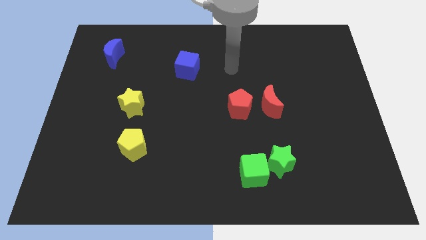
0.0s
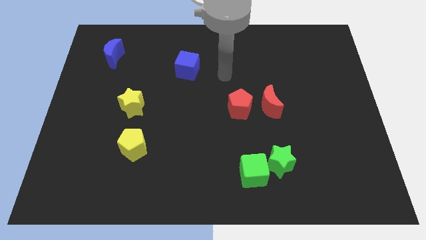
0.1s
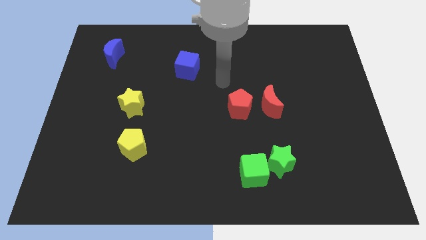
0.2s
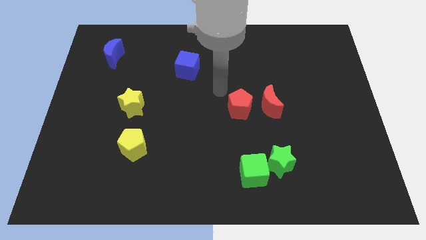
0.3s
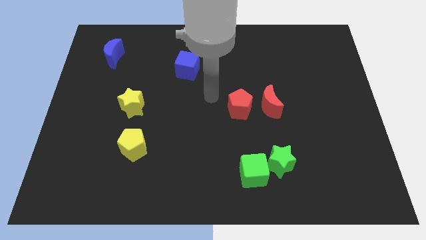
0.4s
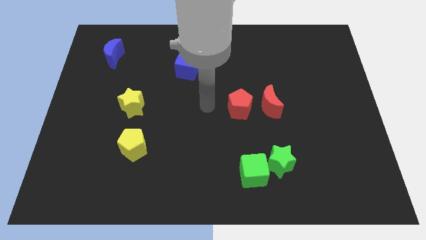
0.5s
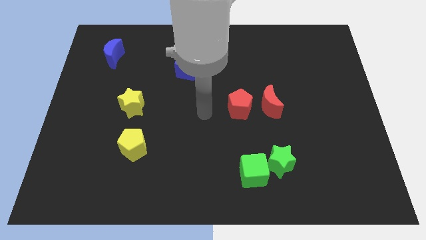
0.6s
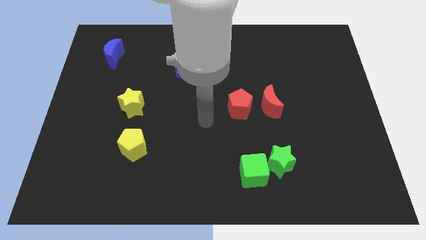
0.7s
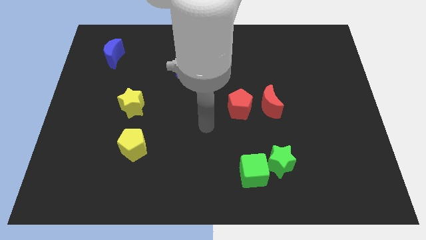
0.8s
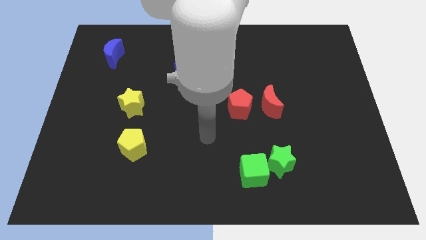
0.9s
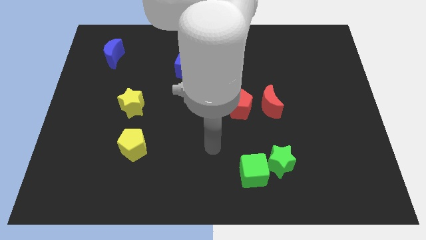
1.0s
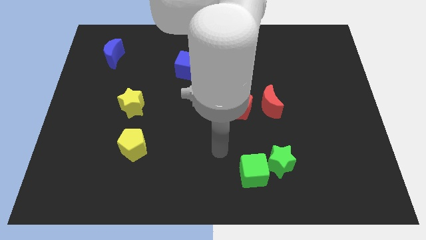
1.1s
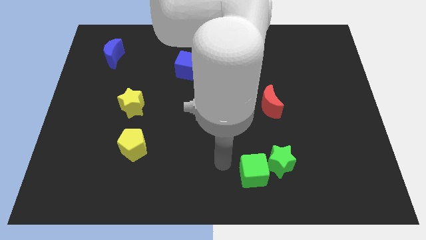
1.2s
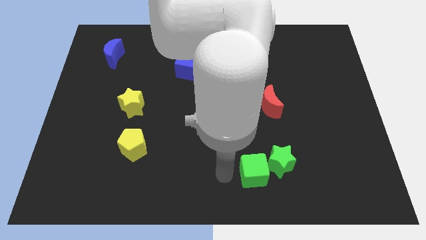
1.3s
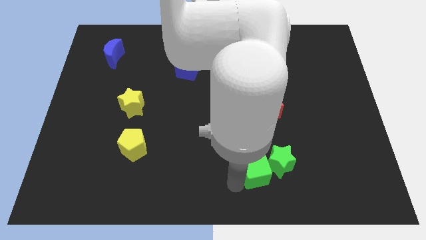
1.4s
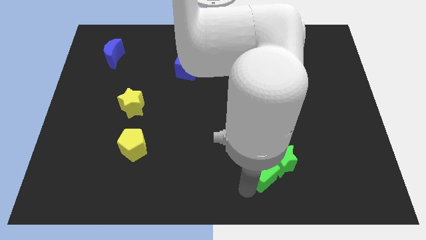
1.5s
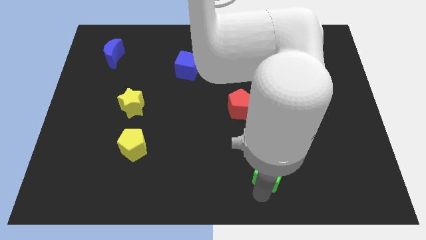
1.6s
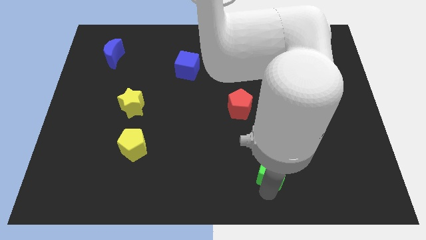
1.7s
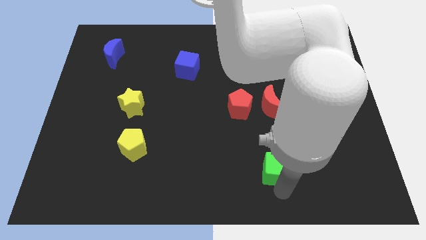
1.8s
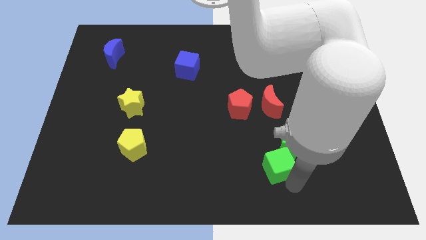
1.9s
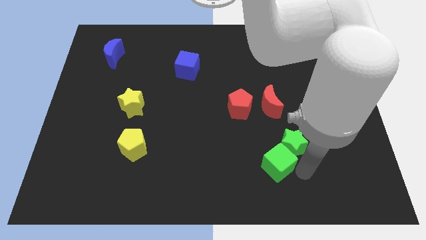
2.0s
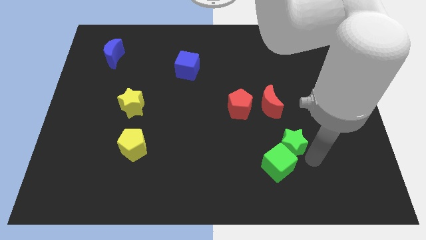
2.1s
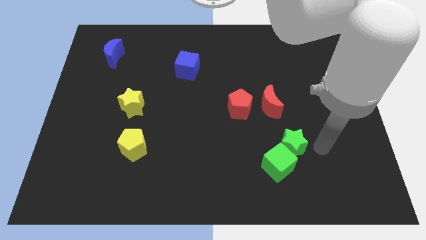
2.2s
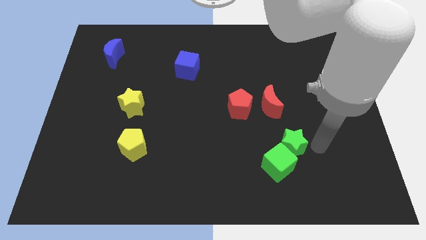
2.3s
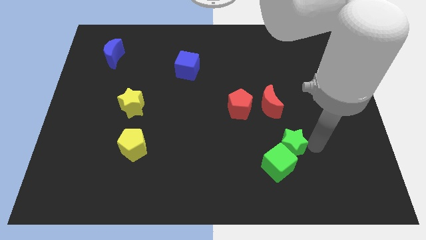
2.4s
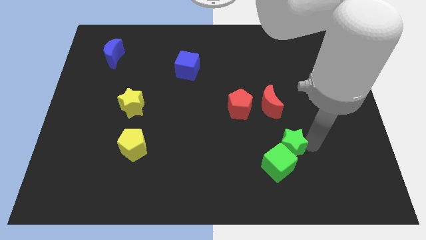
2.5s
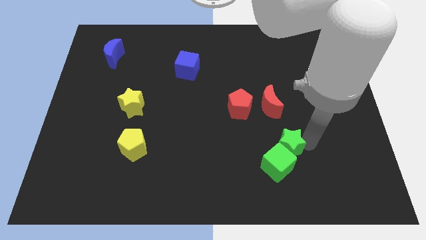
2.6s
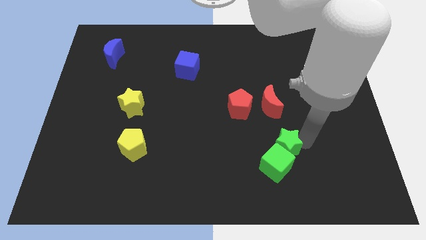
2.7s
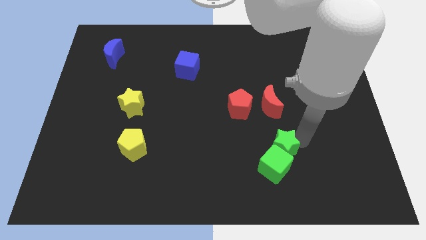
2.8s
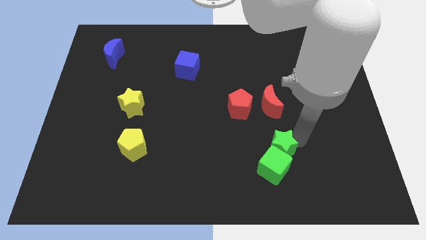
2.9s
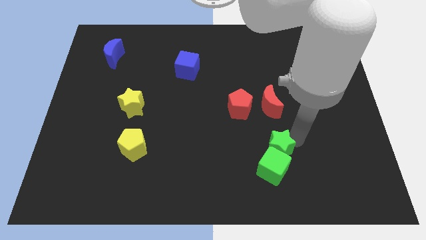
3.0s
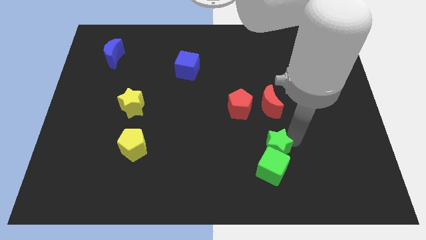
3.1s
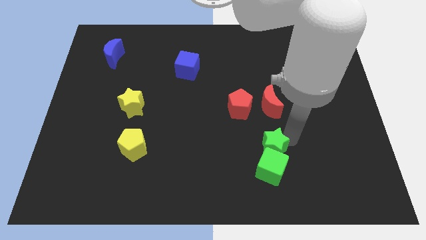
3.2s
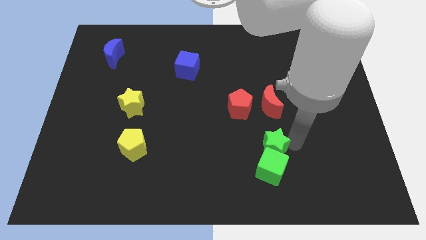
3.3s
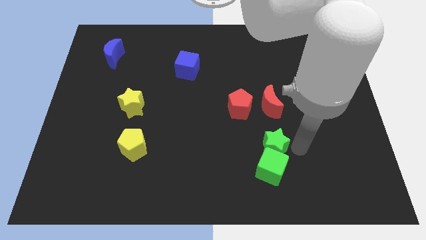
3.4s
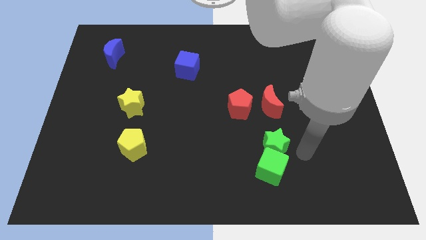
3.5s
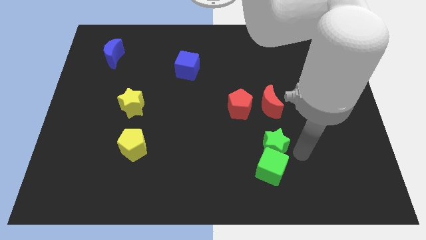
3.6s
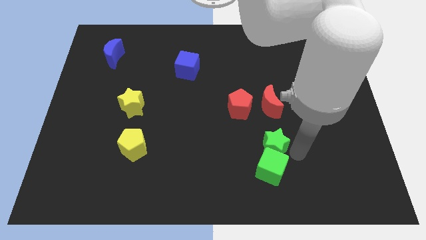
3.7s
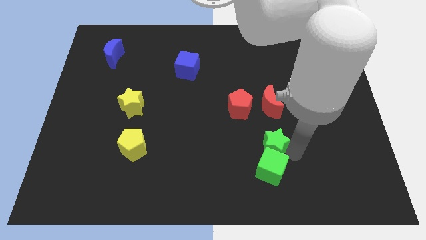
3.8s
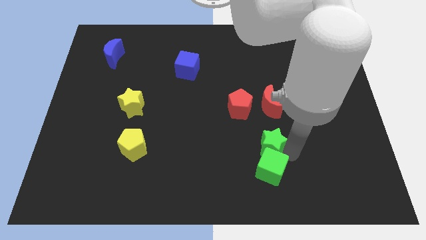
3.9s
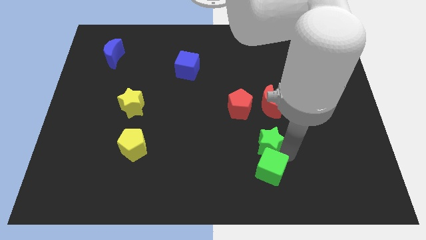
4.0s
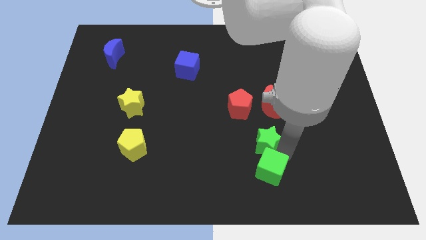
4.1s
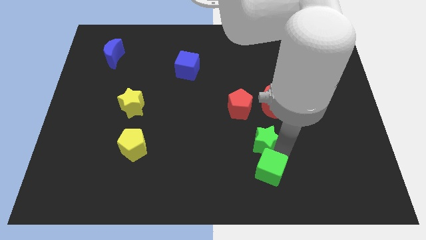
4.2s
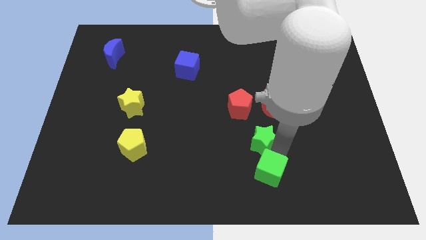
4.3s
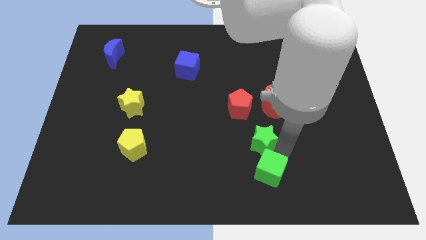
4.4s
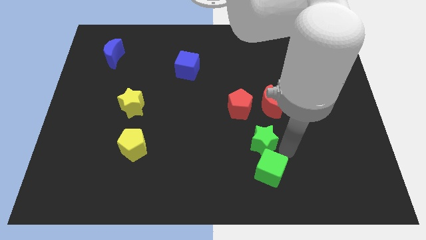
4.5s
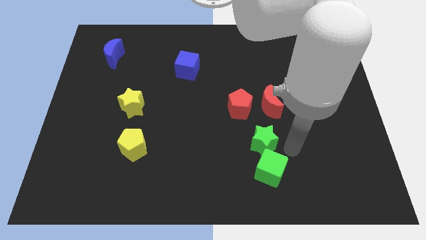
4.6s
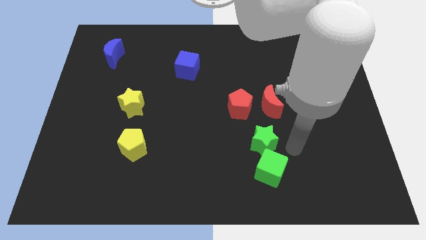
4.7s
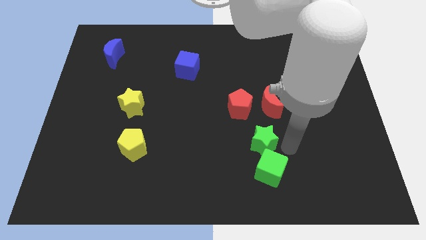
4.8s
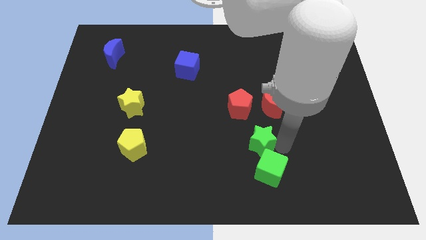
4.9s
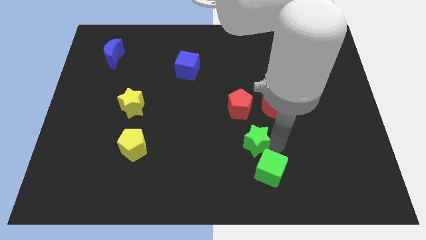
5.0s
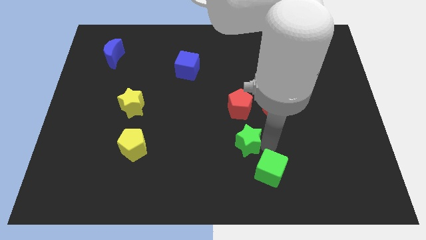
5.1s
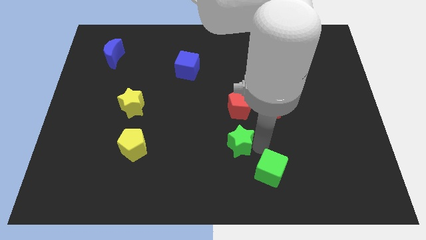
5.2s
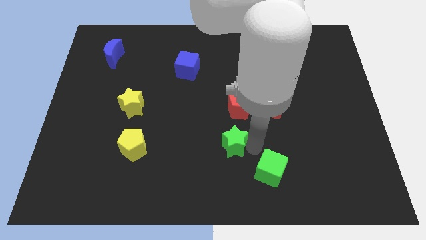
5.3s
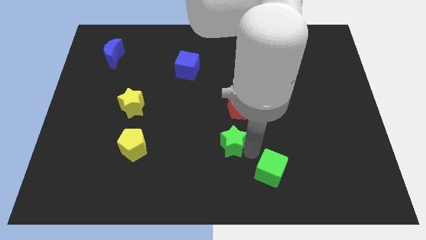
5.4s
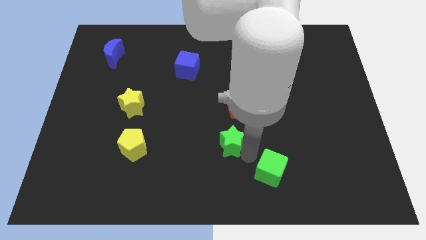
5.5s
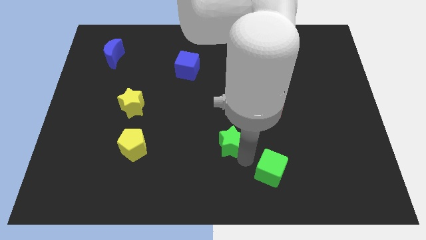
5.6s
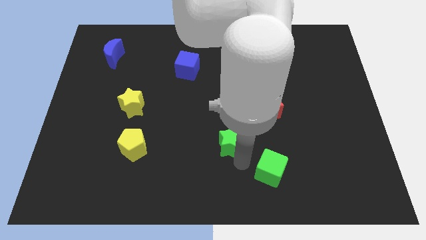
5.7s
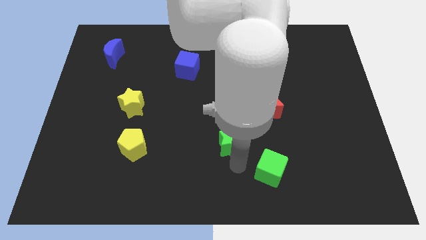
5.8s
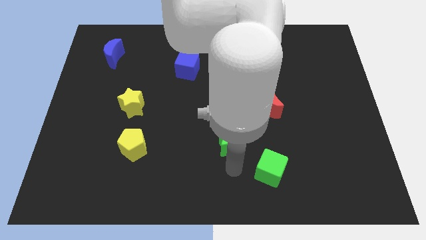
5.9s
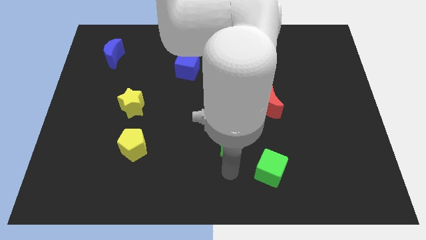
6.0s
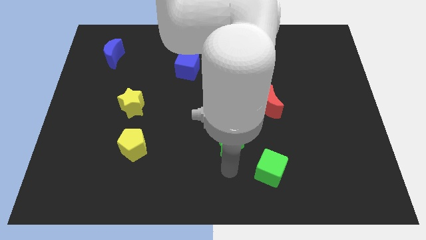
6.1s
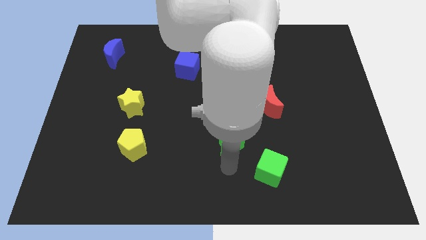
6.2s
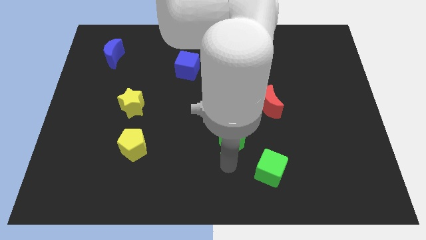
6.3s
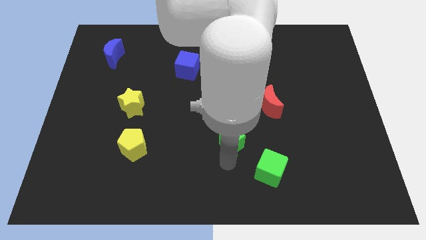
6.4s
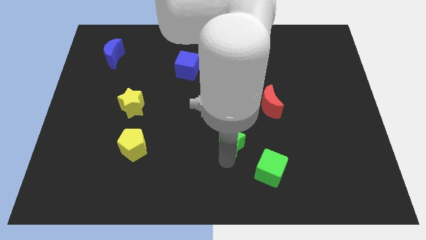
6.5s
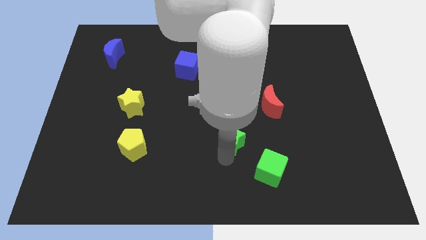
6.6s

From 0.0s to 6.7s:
slide the green star to the center of the board
